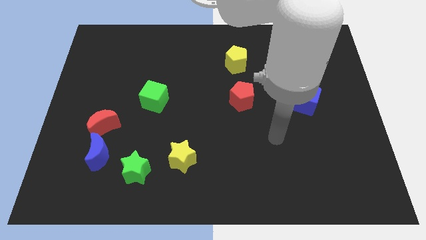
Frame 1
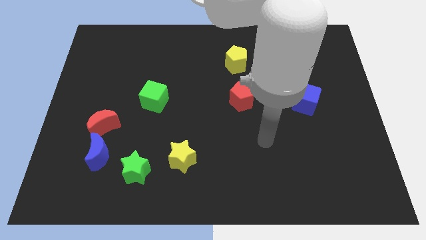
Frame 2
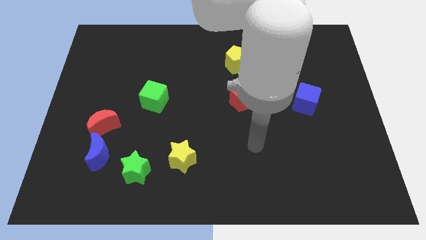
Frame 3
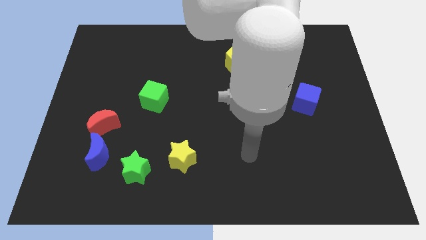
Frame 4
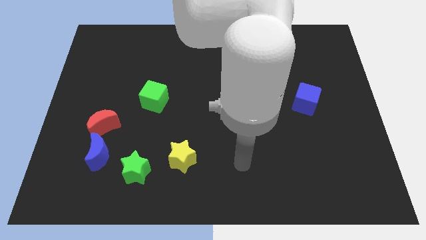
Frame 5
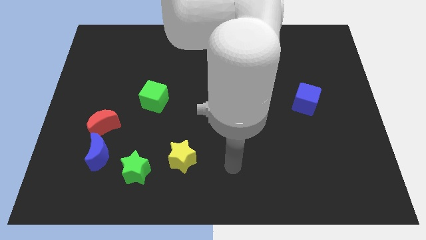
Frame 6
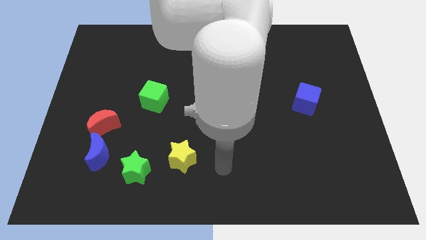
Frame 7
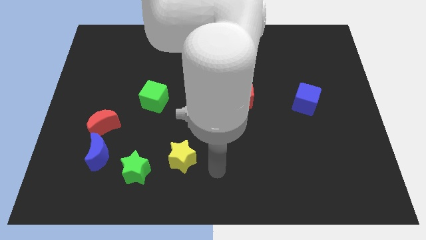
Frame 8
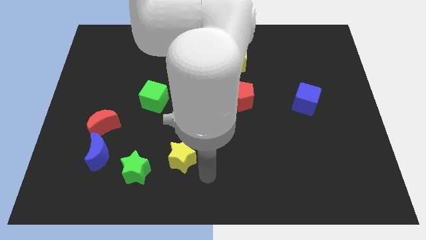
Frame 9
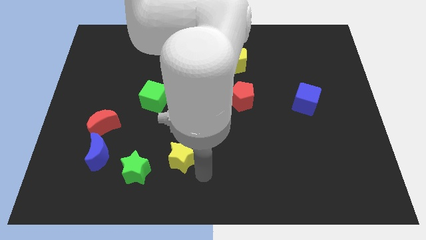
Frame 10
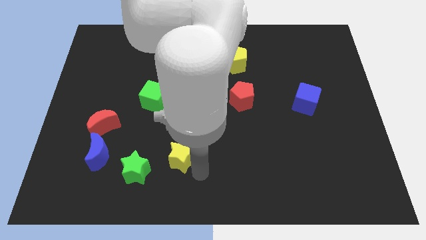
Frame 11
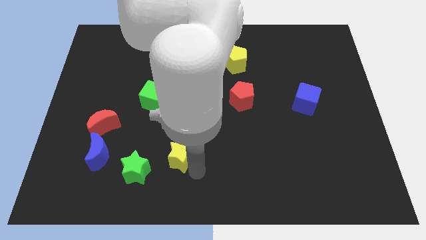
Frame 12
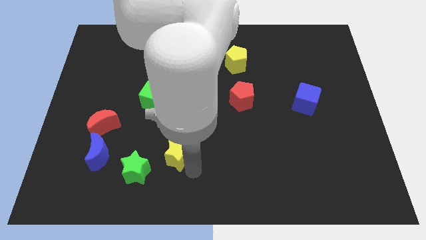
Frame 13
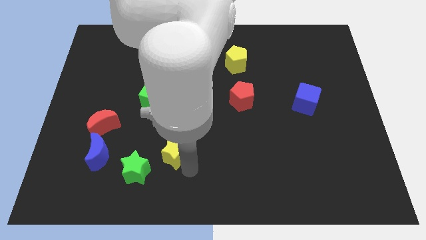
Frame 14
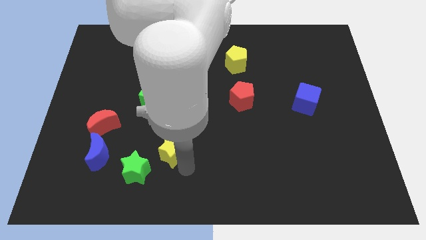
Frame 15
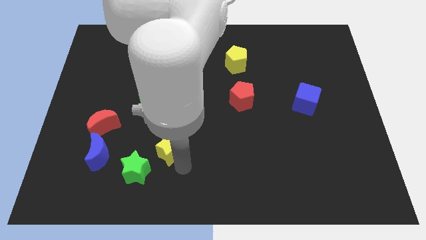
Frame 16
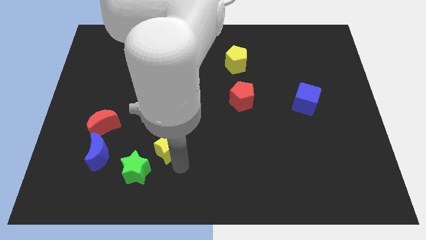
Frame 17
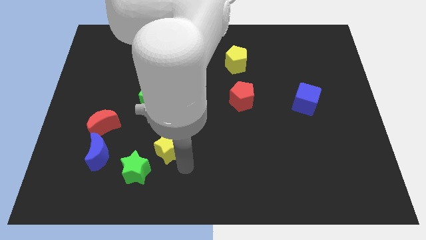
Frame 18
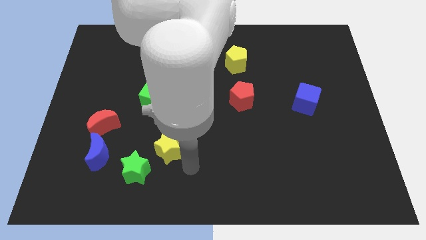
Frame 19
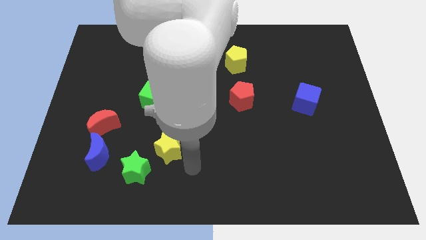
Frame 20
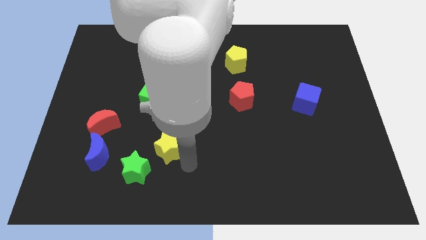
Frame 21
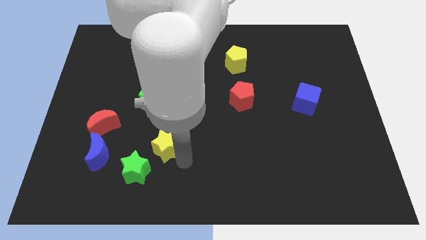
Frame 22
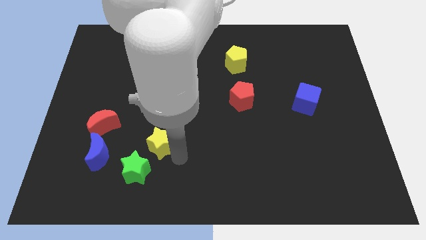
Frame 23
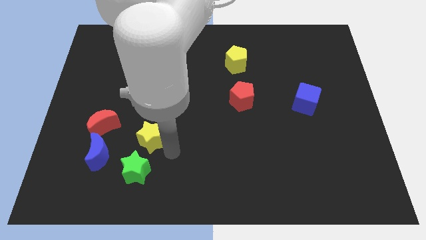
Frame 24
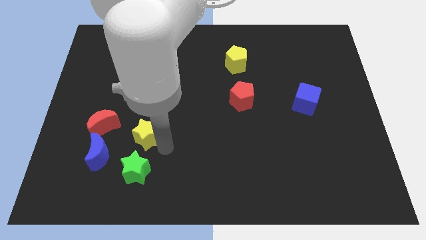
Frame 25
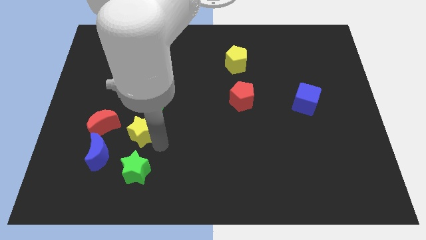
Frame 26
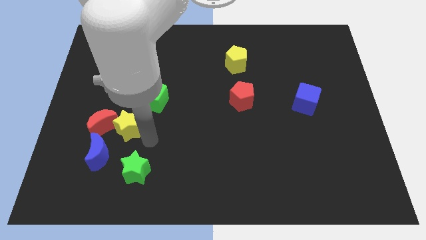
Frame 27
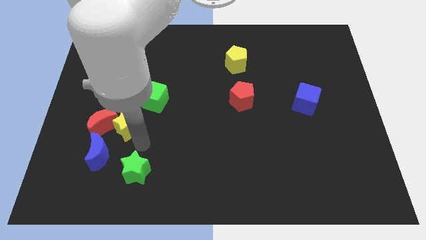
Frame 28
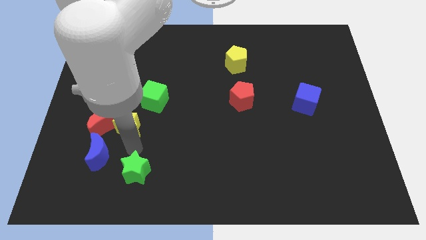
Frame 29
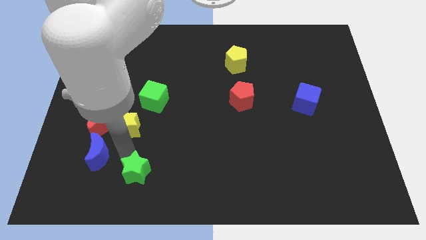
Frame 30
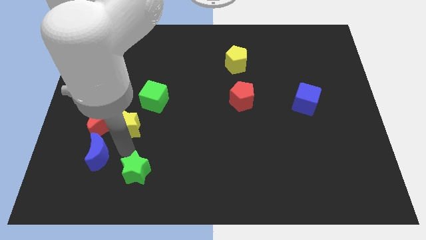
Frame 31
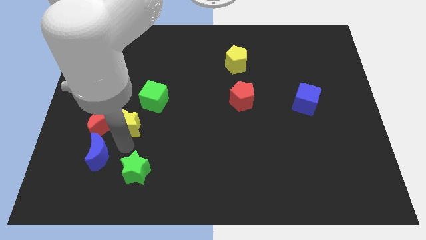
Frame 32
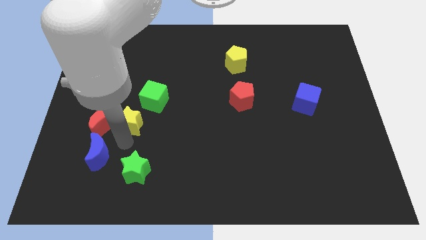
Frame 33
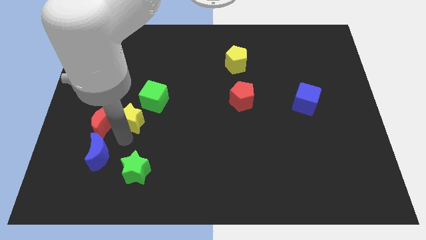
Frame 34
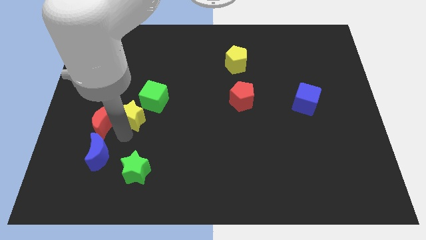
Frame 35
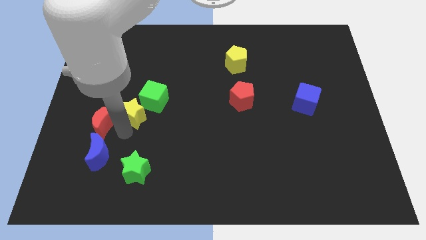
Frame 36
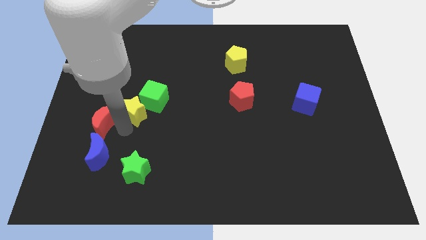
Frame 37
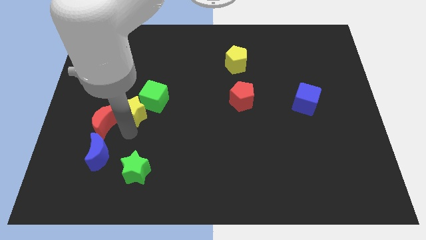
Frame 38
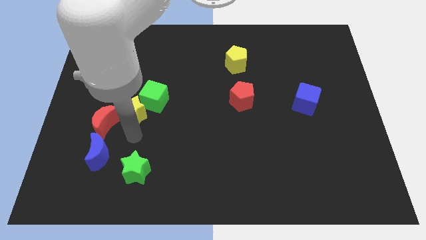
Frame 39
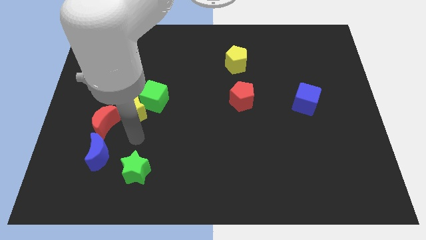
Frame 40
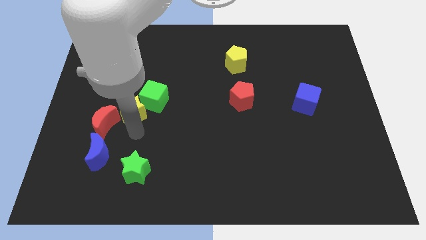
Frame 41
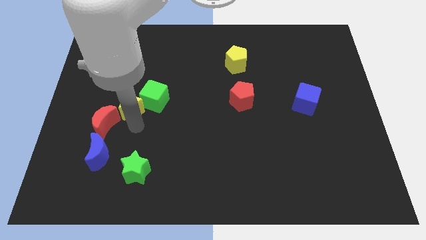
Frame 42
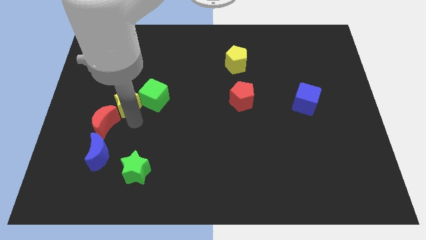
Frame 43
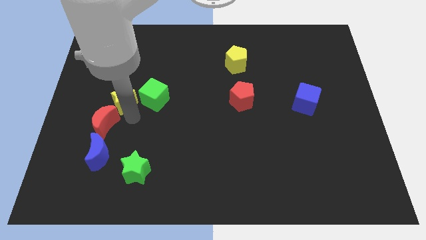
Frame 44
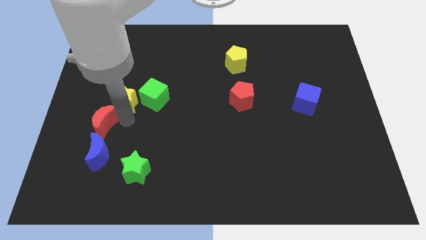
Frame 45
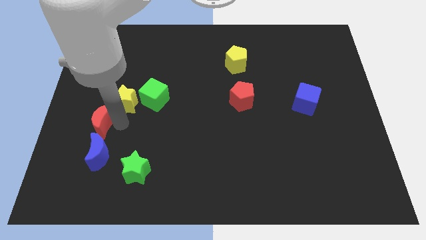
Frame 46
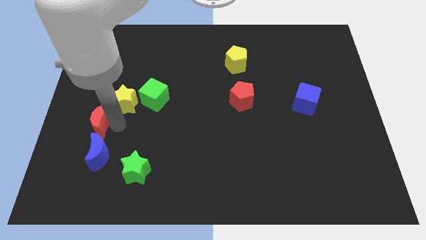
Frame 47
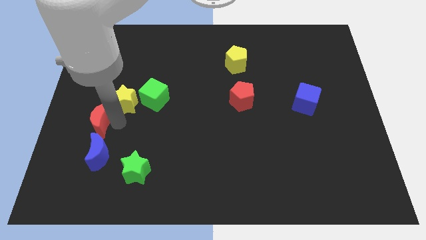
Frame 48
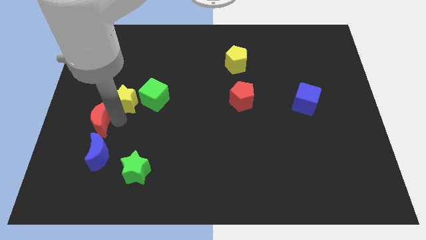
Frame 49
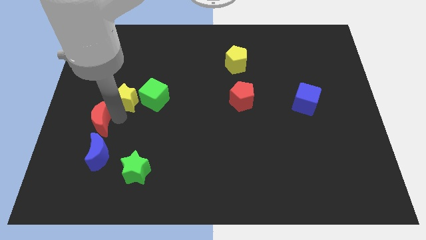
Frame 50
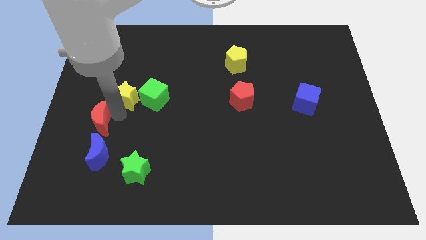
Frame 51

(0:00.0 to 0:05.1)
slide the yellow star to the top left of the green cube

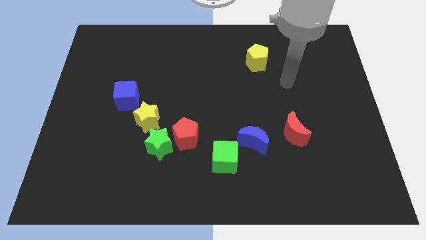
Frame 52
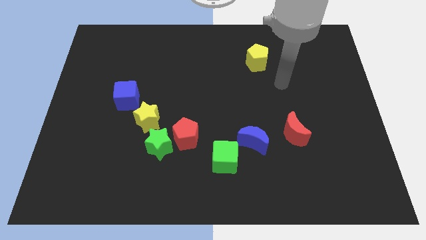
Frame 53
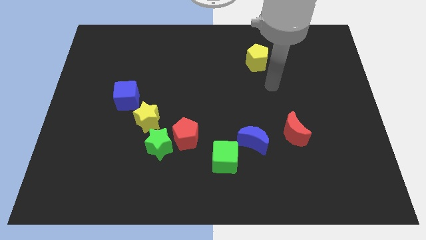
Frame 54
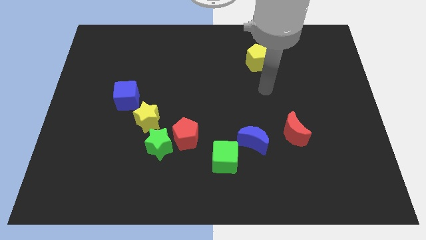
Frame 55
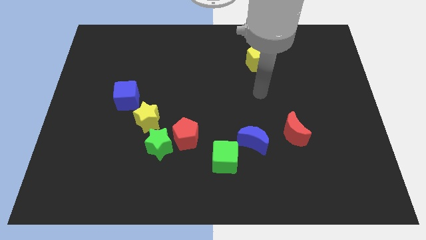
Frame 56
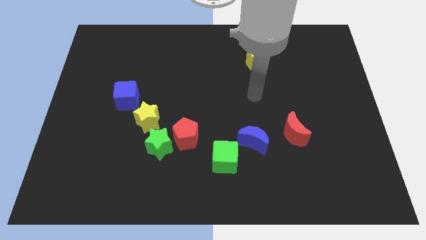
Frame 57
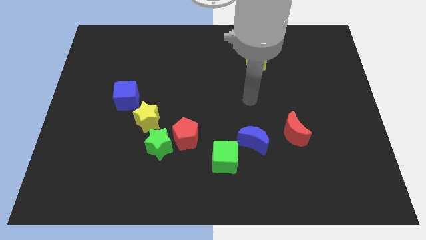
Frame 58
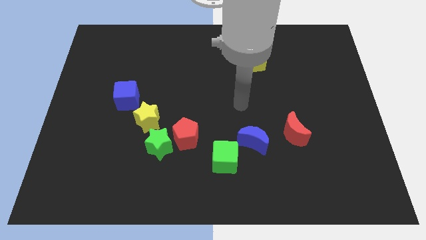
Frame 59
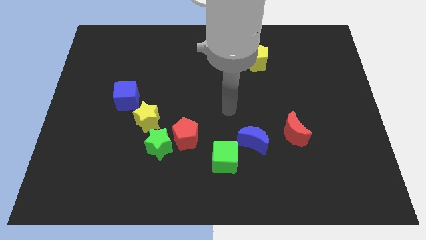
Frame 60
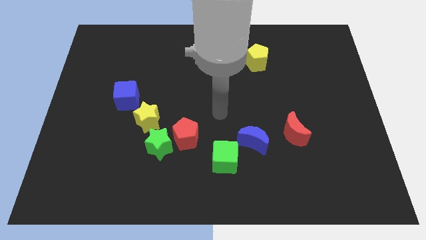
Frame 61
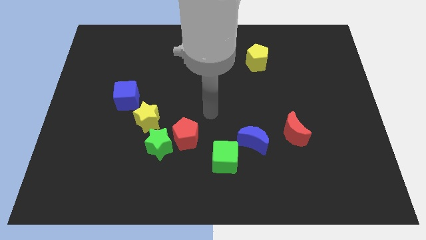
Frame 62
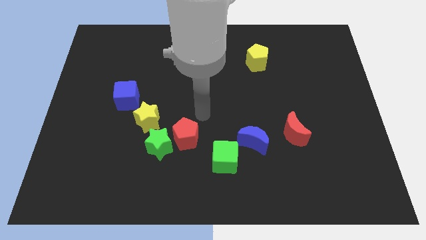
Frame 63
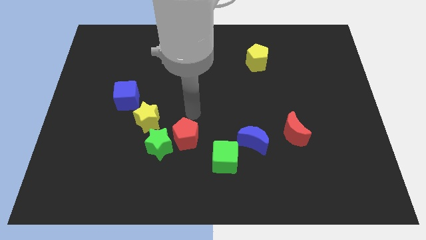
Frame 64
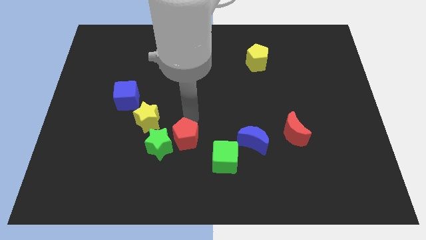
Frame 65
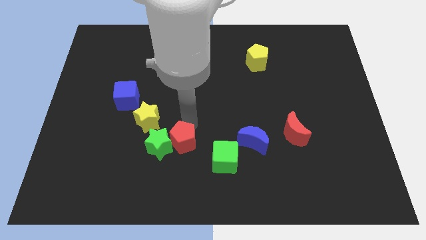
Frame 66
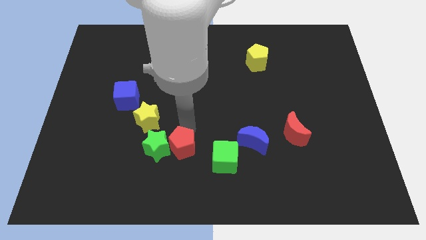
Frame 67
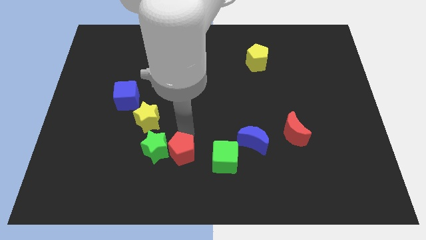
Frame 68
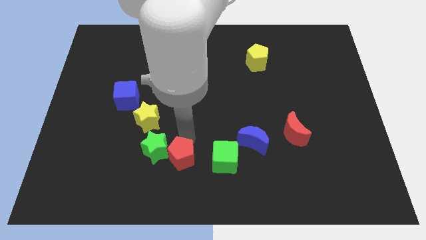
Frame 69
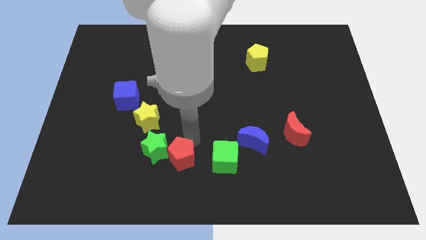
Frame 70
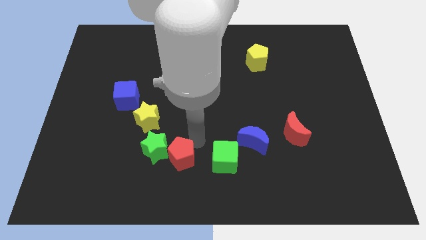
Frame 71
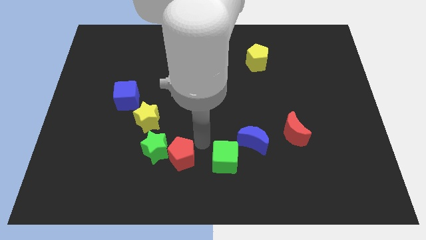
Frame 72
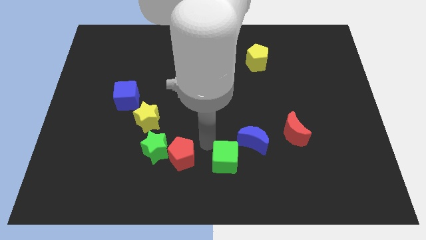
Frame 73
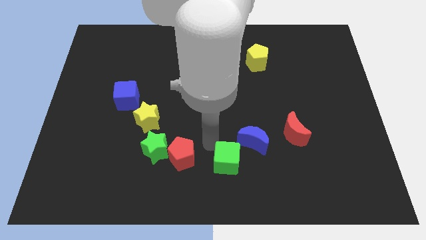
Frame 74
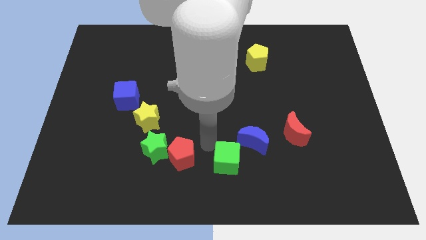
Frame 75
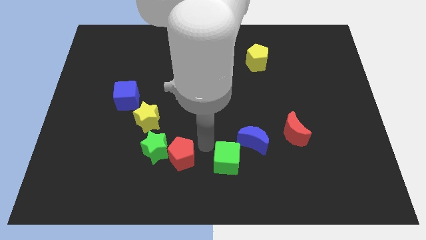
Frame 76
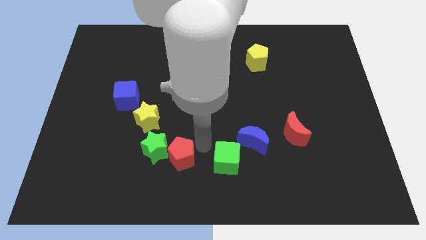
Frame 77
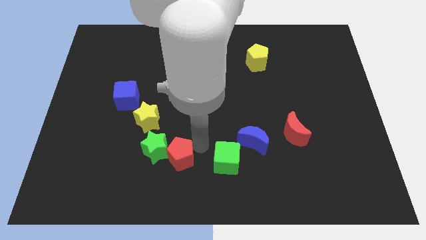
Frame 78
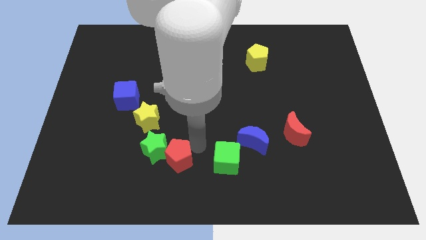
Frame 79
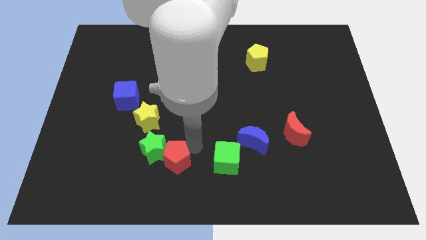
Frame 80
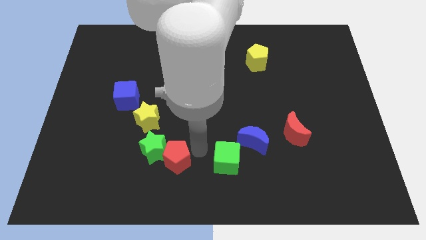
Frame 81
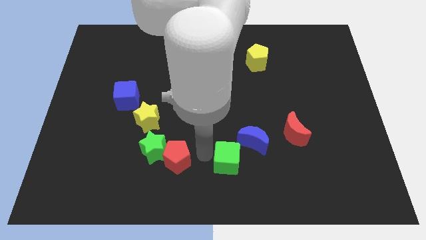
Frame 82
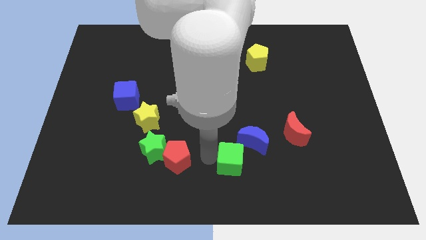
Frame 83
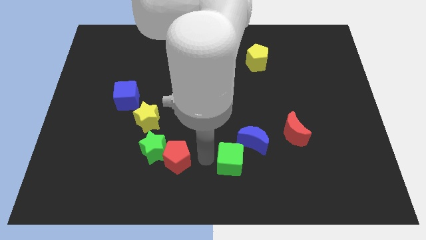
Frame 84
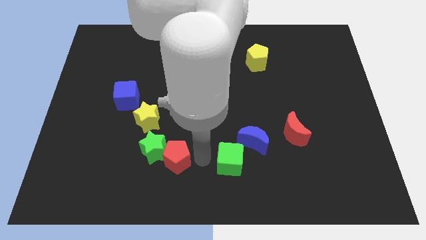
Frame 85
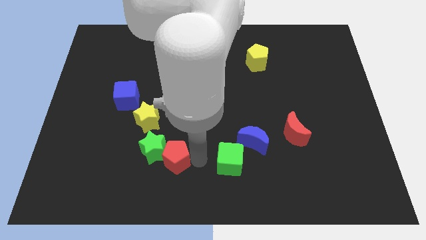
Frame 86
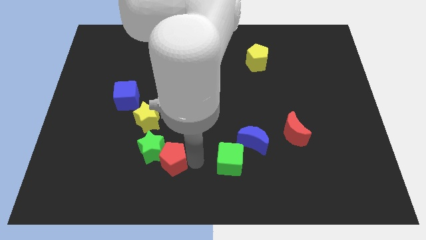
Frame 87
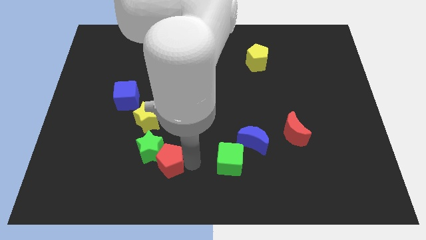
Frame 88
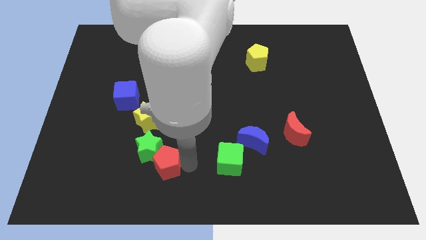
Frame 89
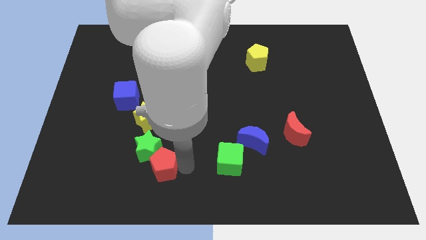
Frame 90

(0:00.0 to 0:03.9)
move the red pentagon to the bottom side of the yellow star
